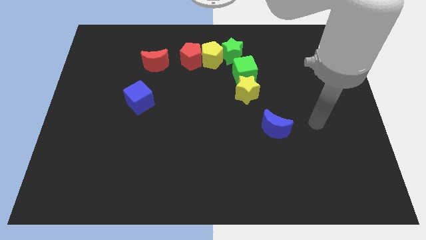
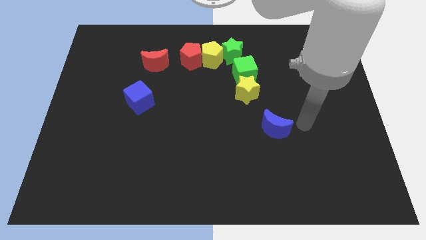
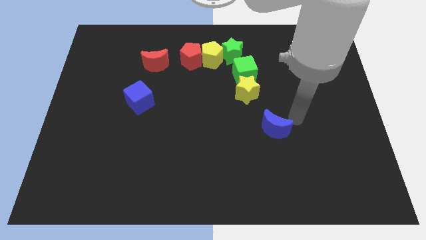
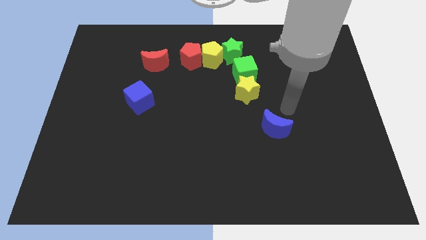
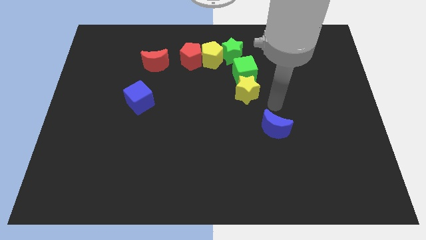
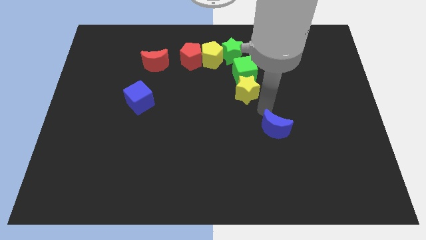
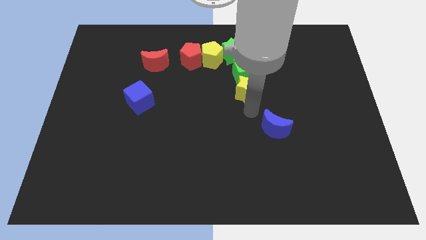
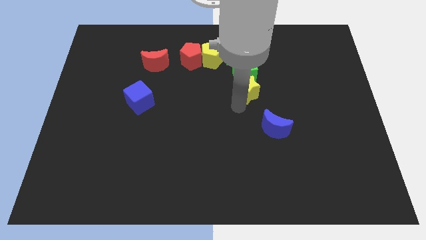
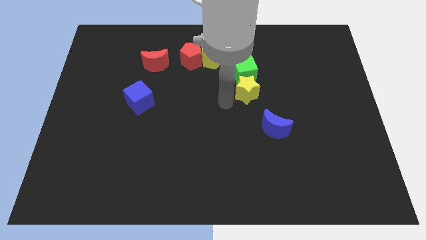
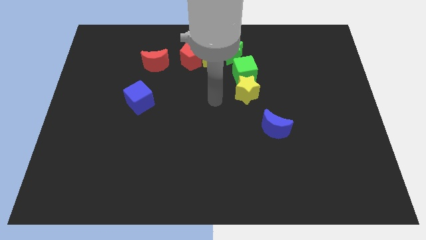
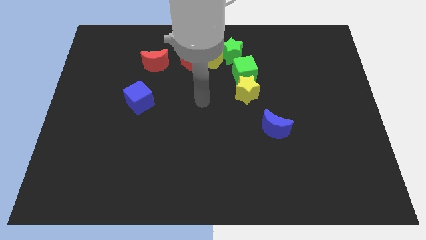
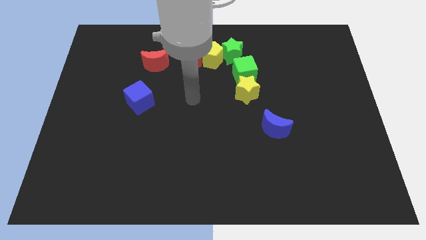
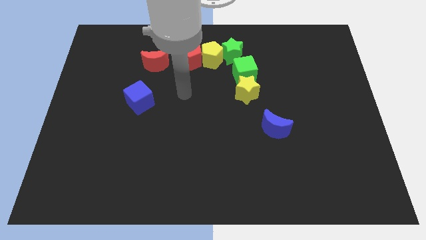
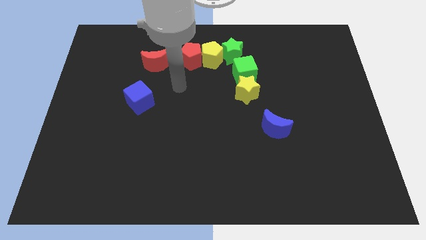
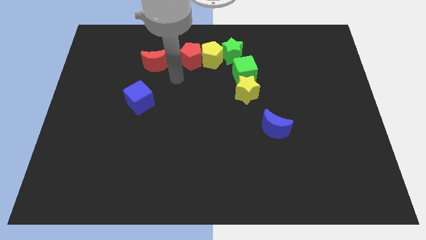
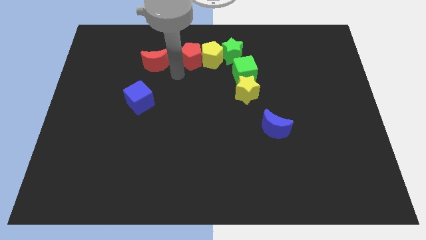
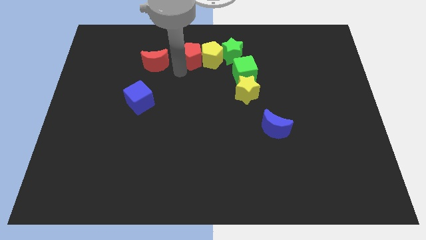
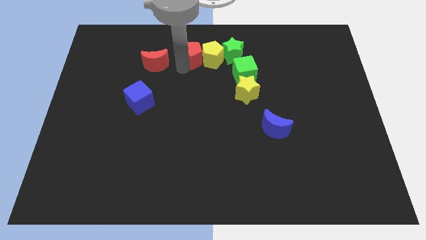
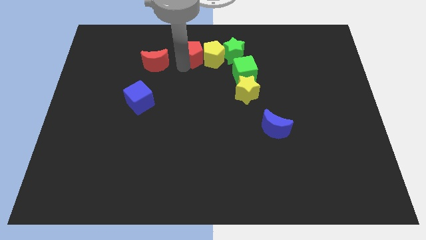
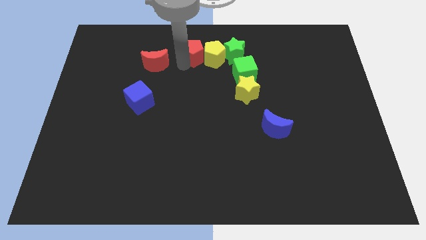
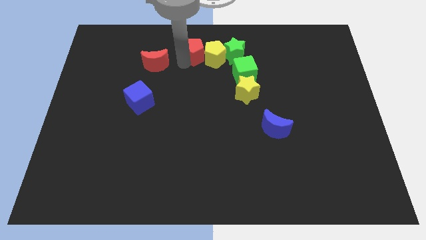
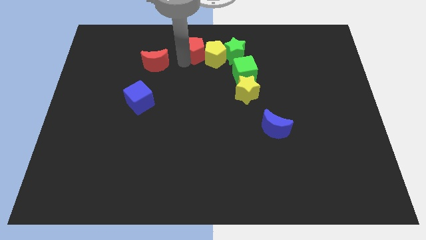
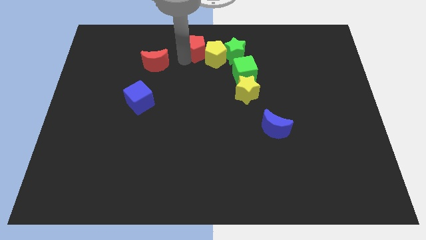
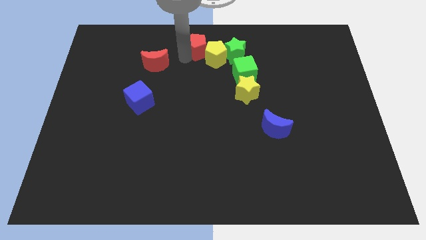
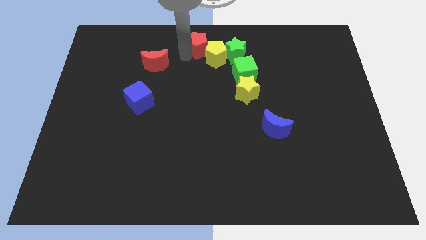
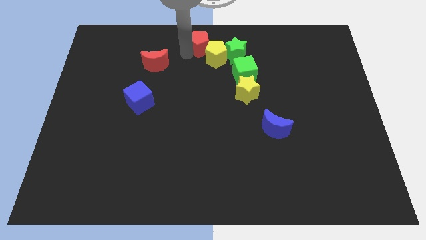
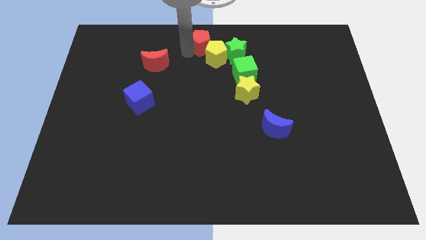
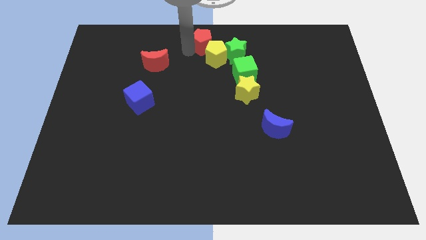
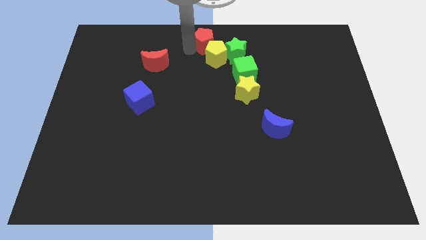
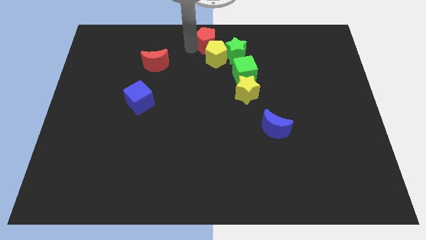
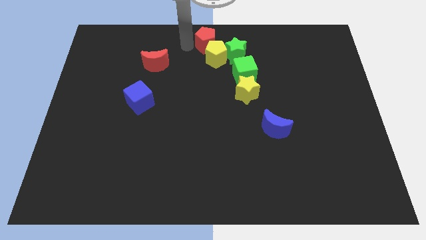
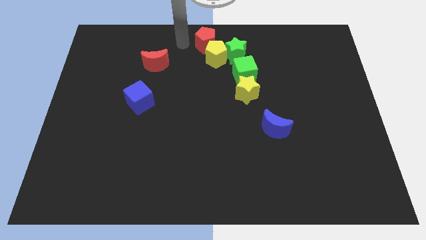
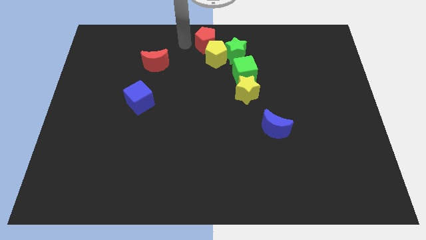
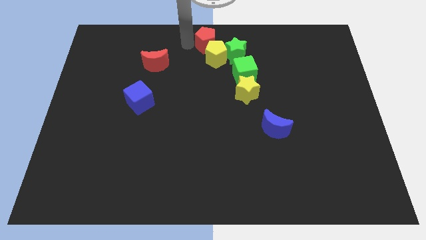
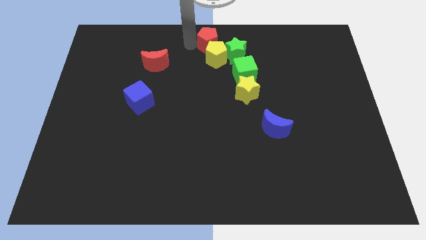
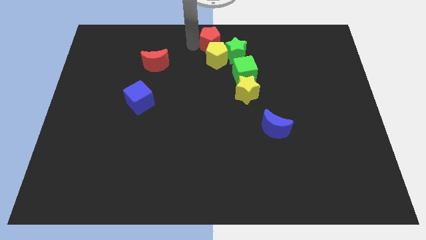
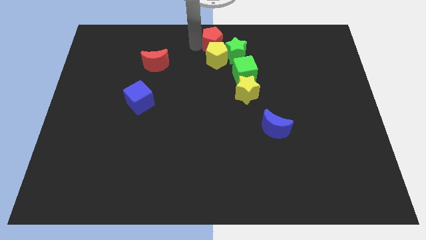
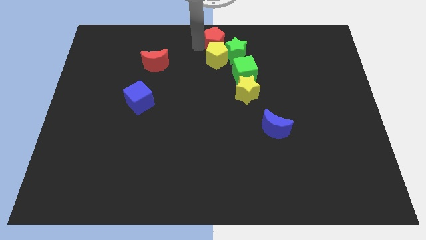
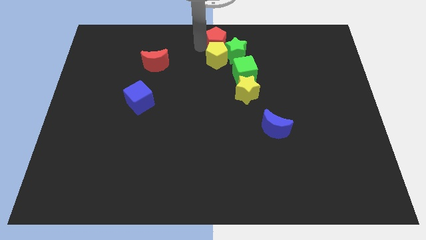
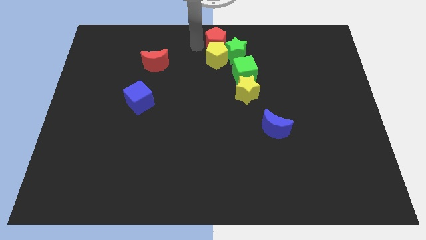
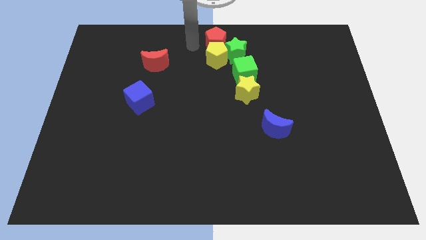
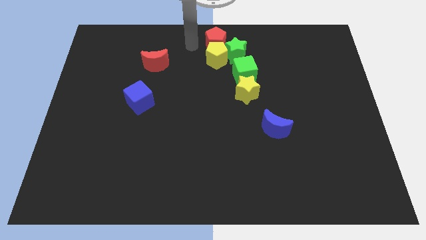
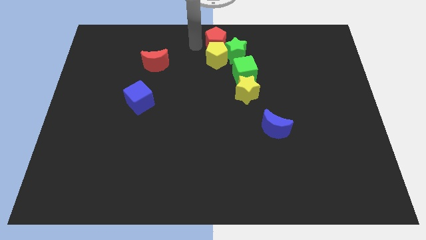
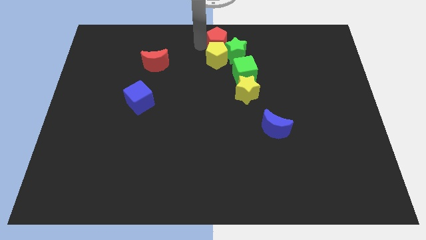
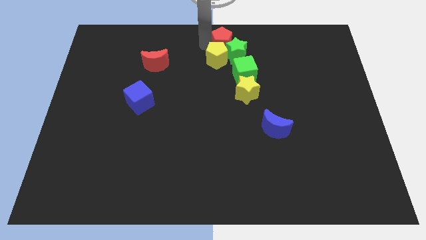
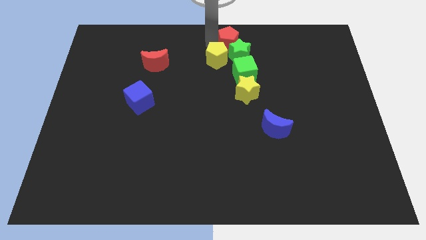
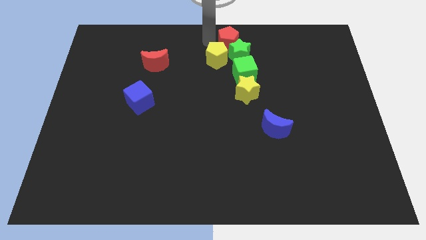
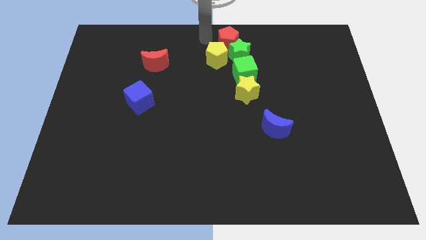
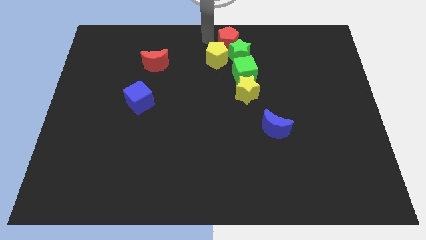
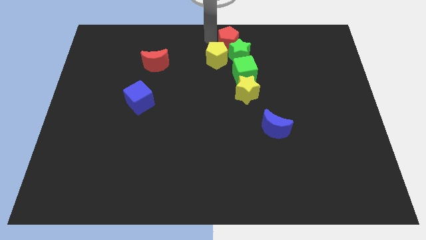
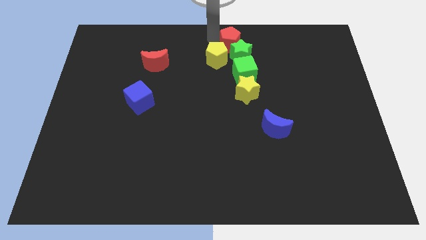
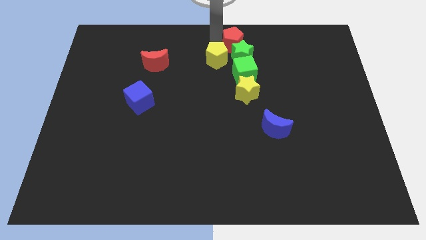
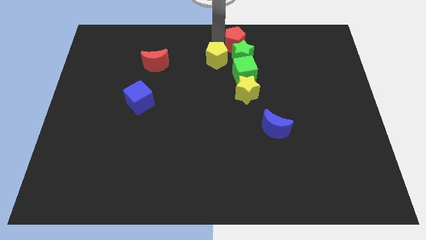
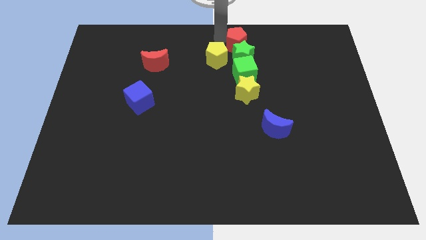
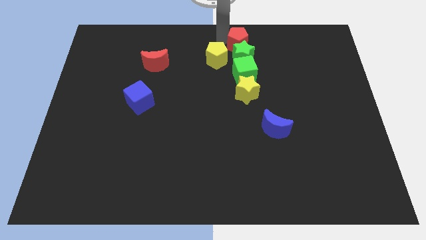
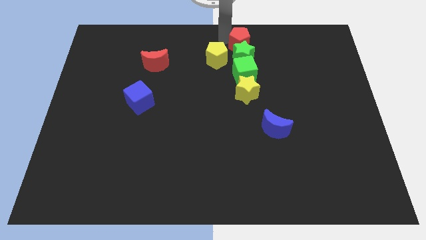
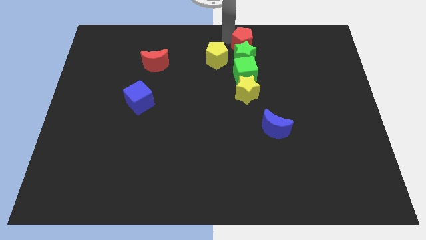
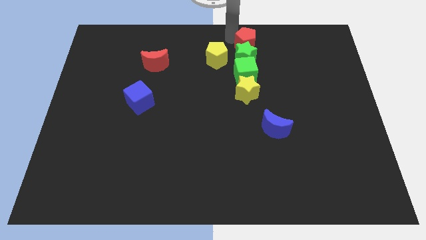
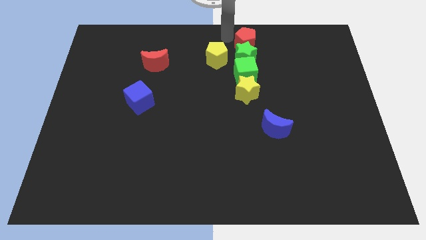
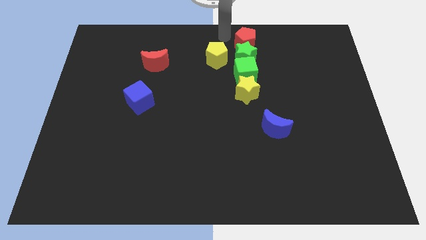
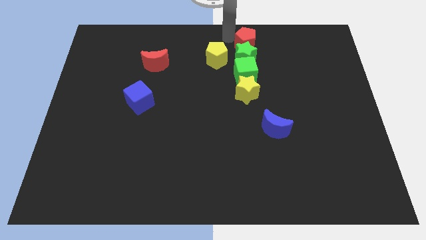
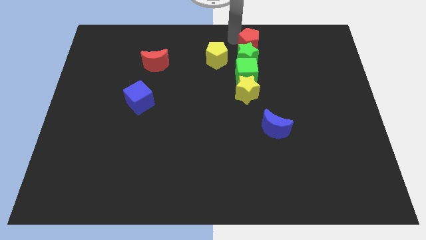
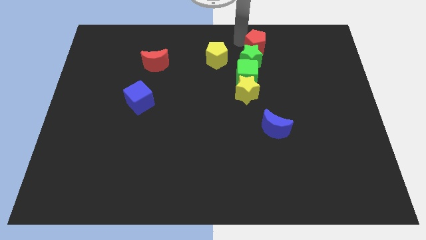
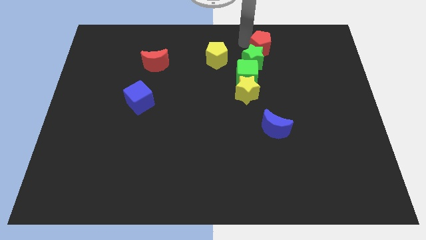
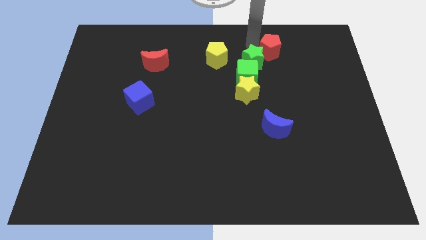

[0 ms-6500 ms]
slide the red pentagon to the right

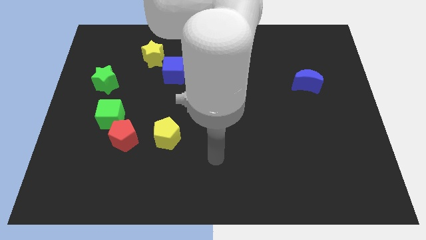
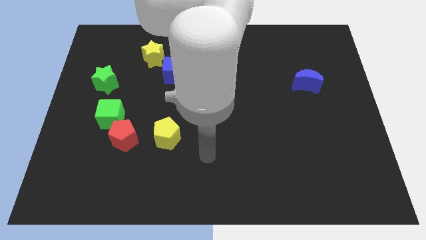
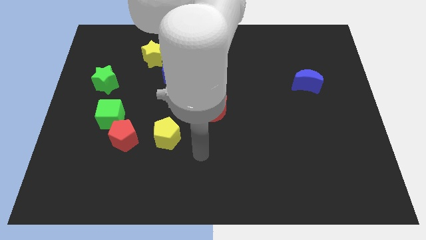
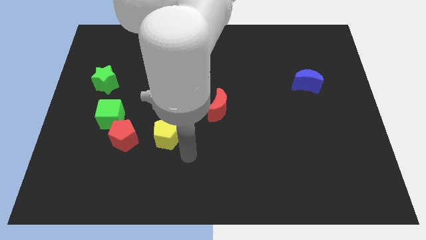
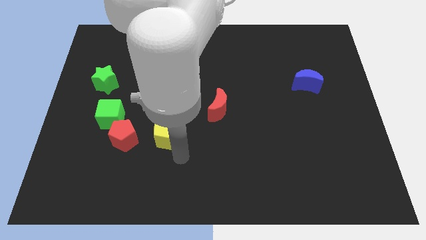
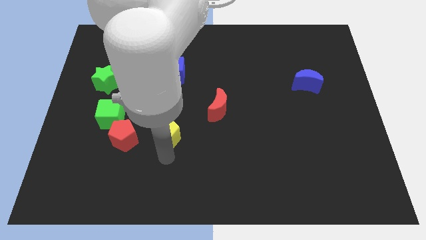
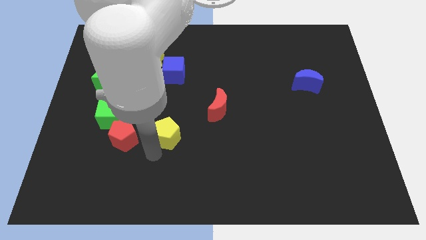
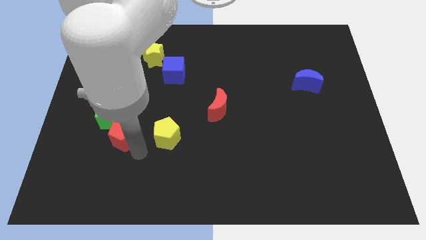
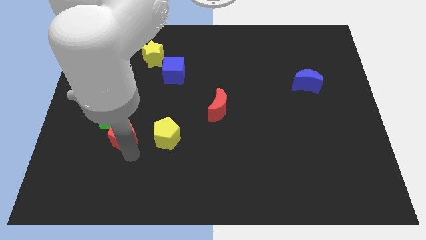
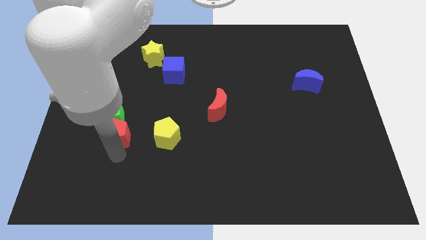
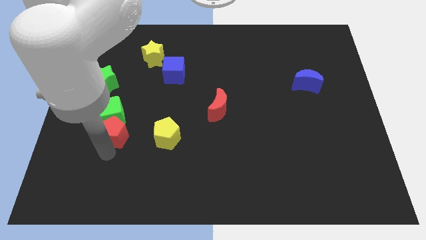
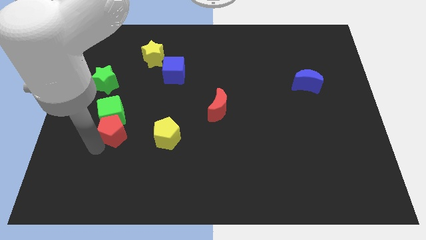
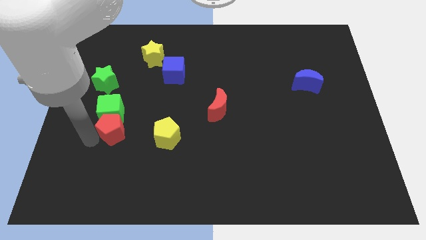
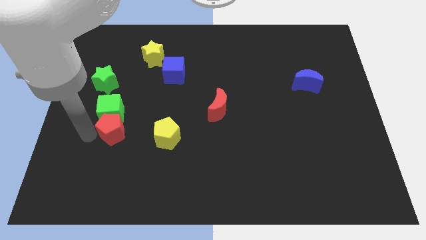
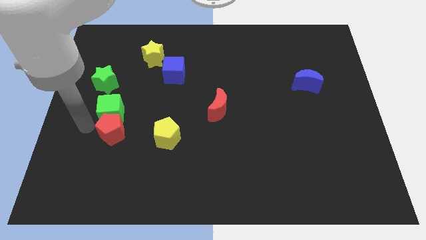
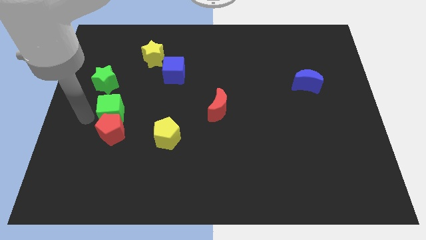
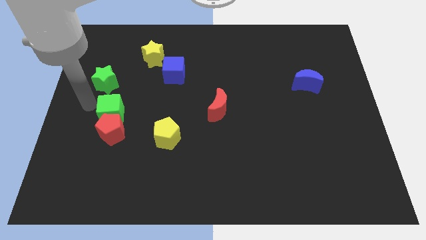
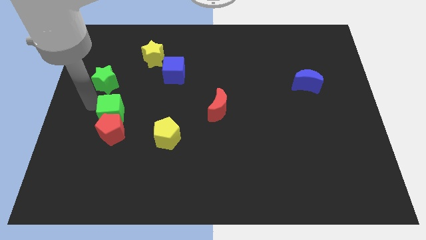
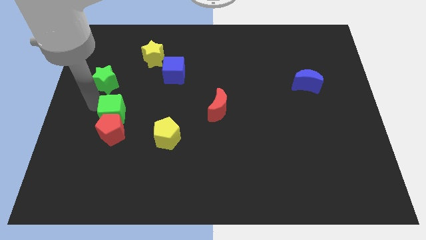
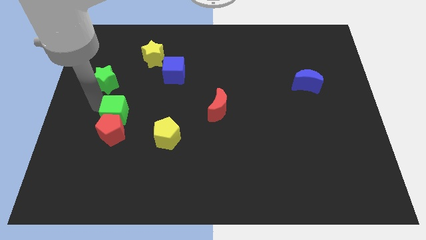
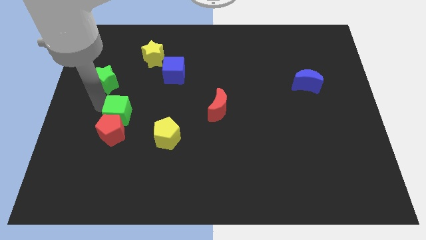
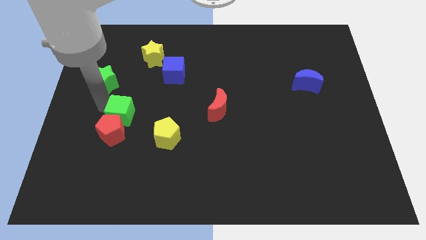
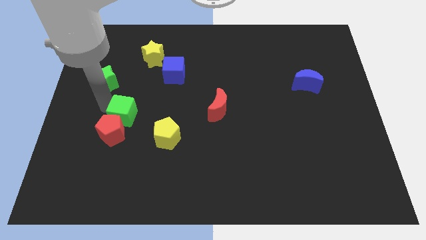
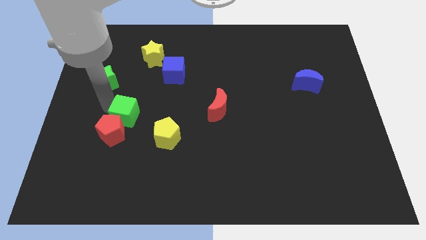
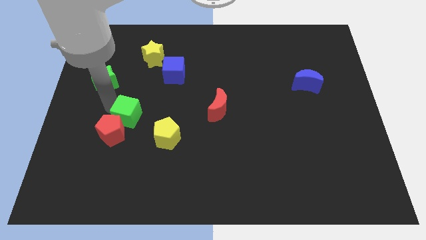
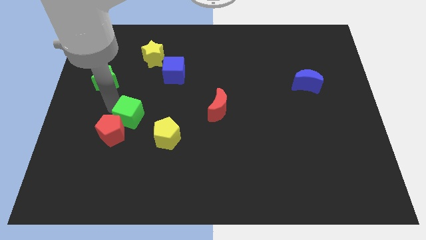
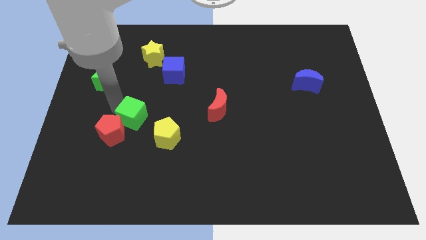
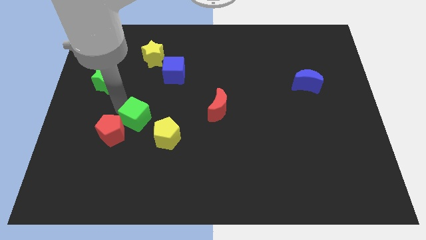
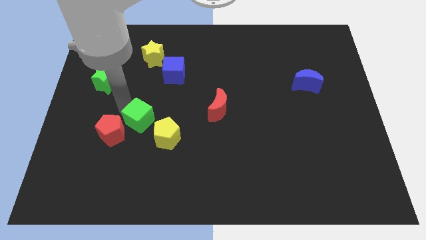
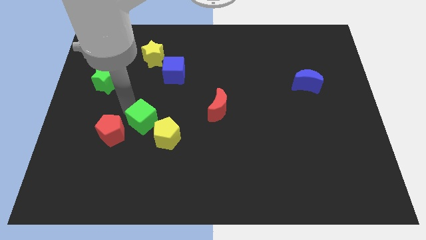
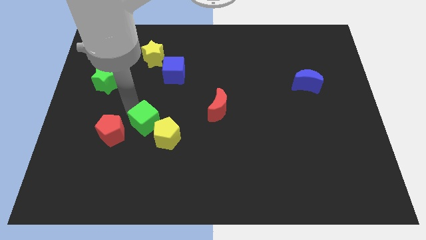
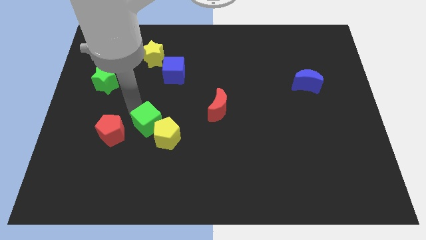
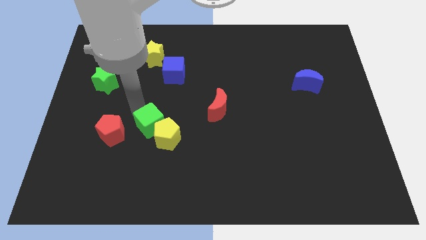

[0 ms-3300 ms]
move the green cube downwards and to the right diagonally slightly
